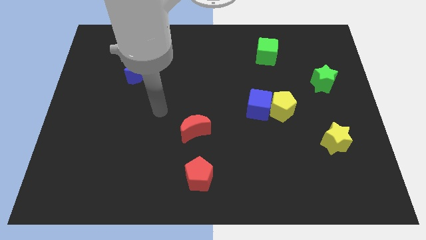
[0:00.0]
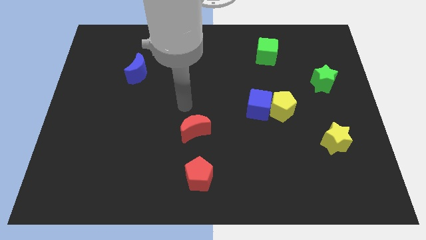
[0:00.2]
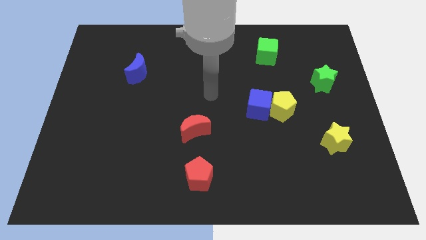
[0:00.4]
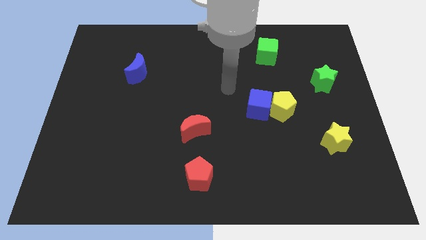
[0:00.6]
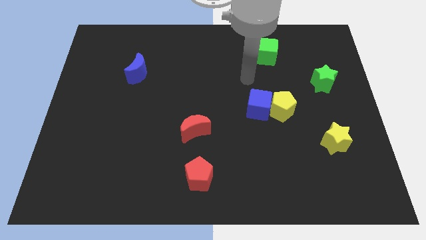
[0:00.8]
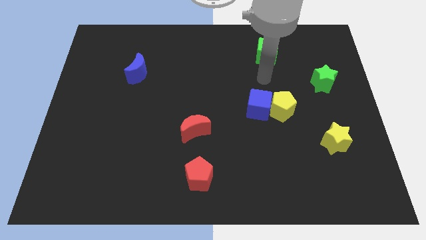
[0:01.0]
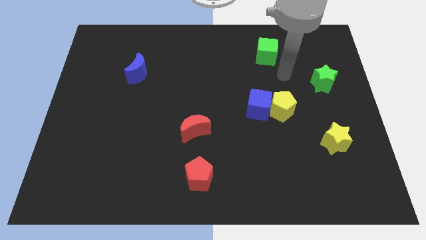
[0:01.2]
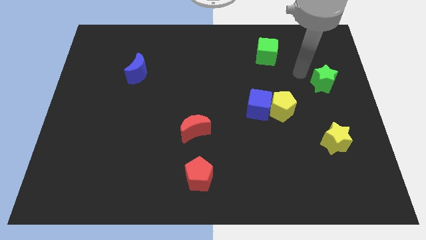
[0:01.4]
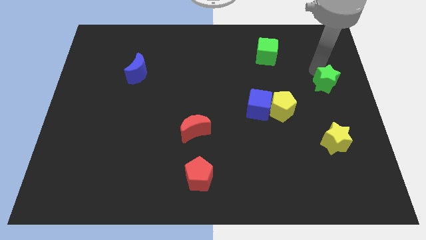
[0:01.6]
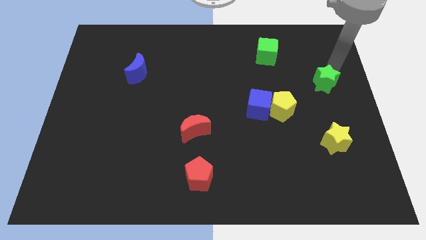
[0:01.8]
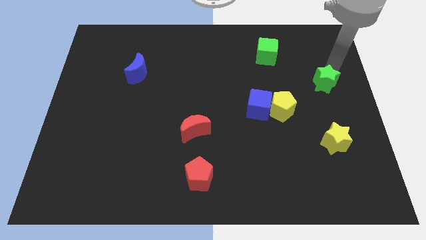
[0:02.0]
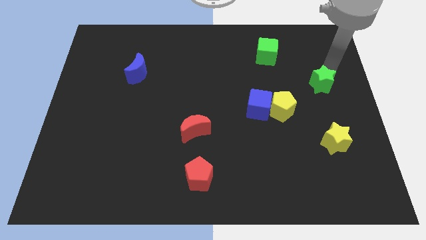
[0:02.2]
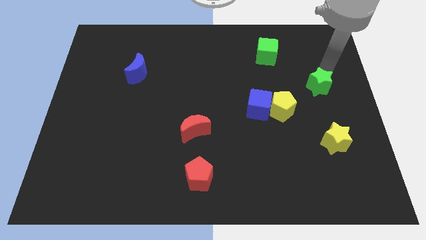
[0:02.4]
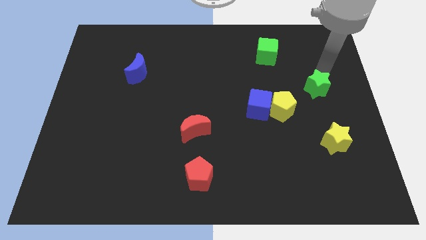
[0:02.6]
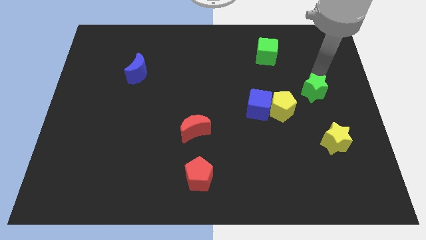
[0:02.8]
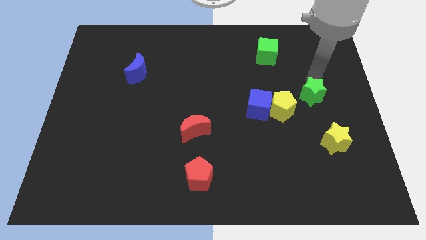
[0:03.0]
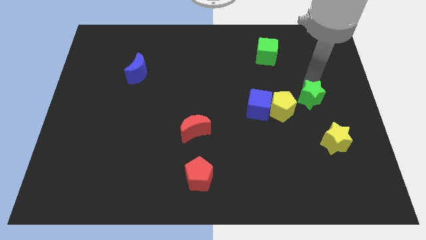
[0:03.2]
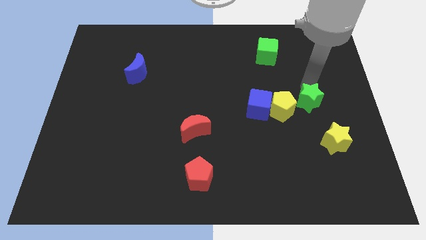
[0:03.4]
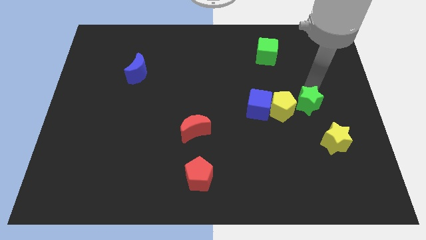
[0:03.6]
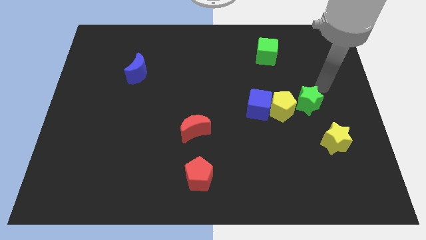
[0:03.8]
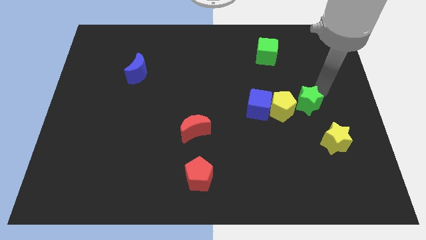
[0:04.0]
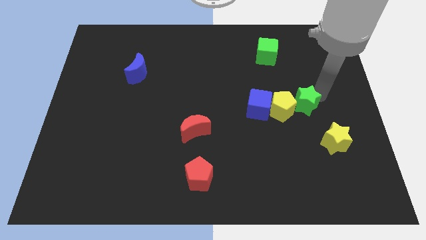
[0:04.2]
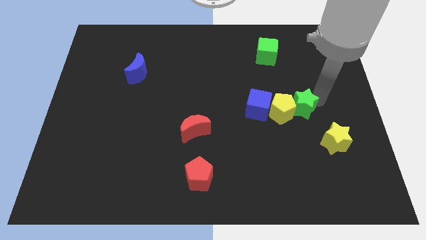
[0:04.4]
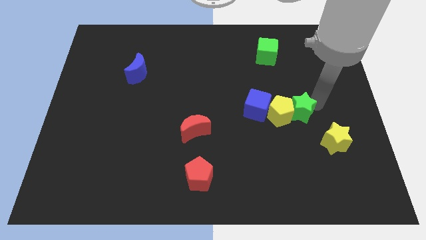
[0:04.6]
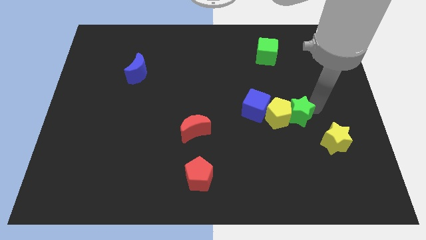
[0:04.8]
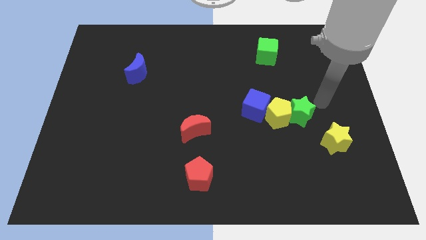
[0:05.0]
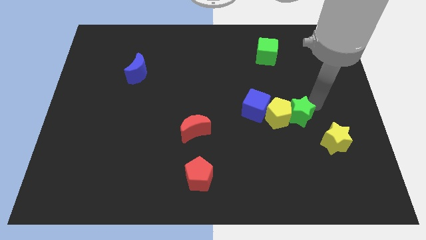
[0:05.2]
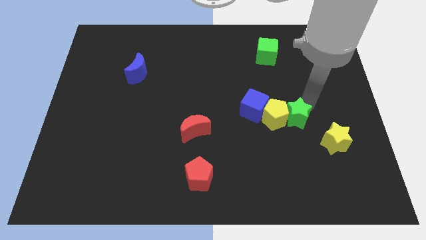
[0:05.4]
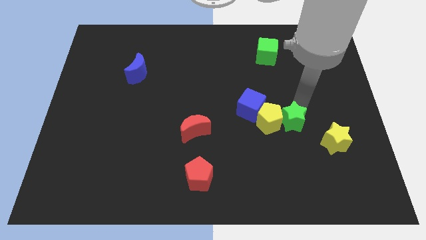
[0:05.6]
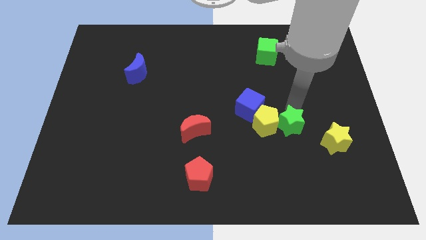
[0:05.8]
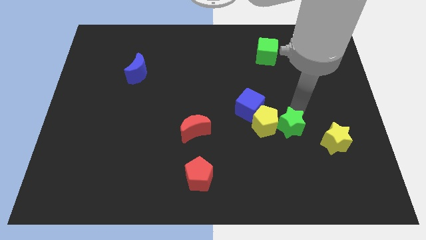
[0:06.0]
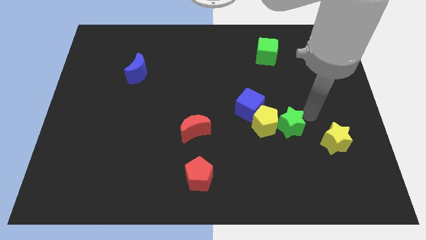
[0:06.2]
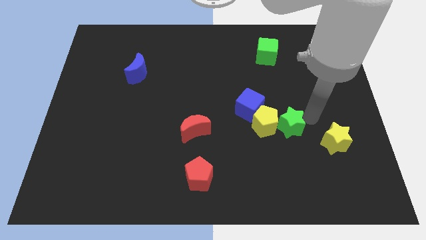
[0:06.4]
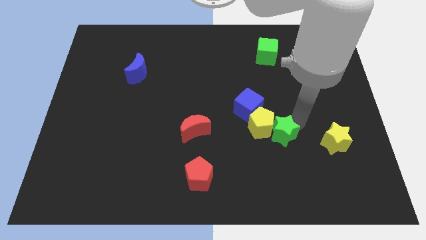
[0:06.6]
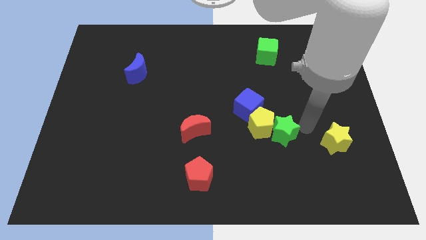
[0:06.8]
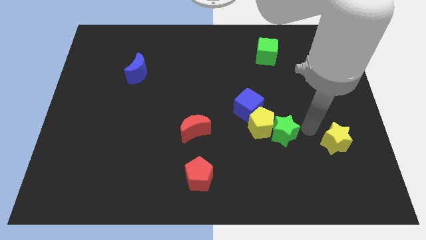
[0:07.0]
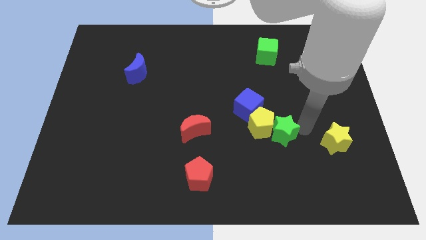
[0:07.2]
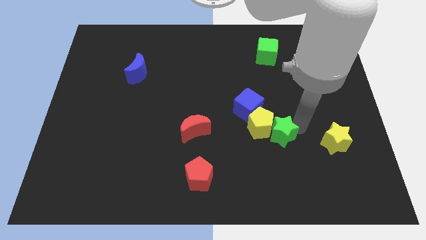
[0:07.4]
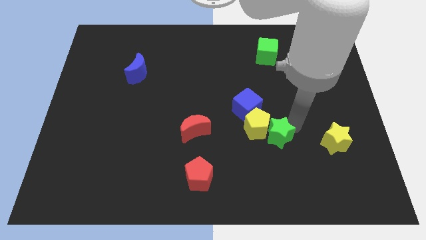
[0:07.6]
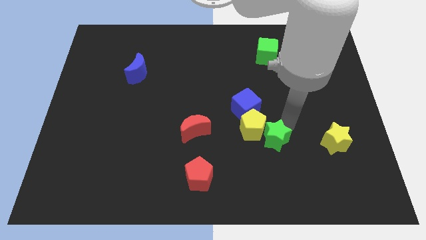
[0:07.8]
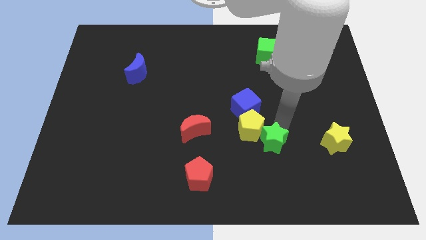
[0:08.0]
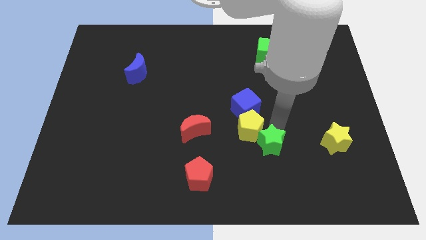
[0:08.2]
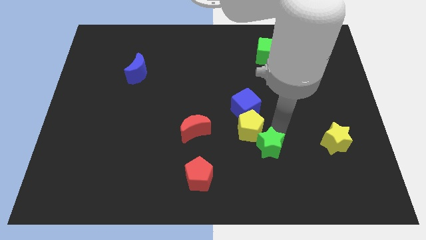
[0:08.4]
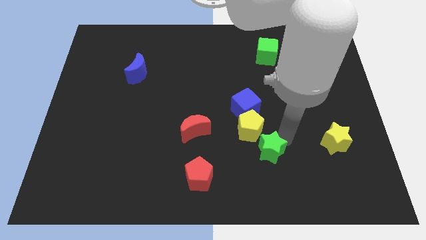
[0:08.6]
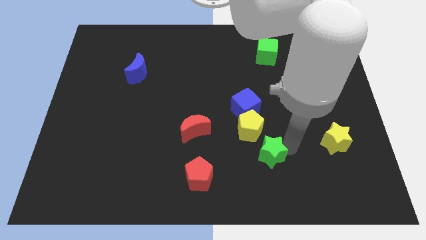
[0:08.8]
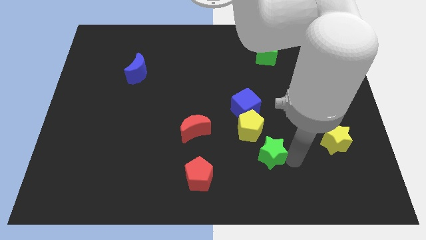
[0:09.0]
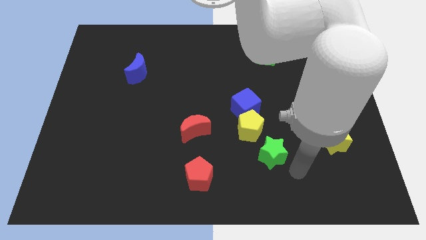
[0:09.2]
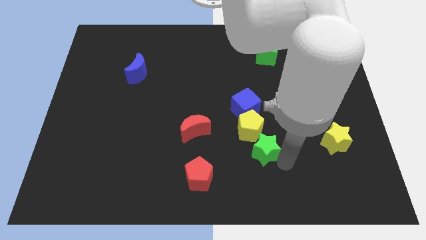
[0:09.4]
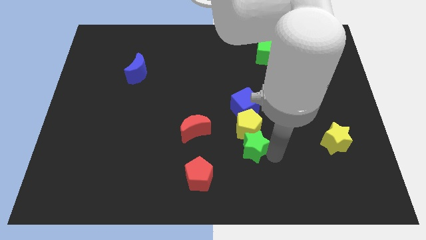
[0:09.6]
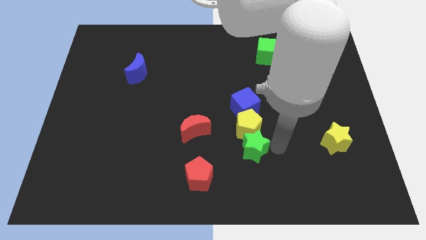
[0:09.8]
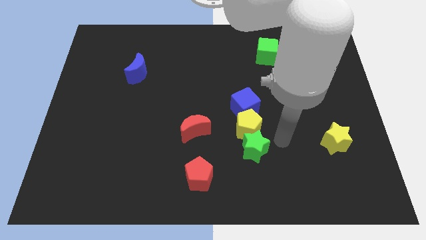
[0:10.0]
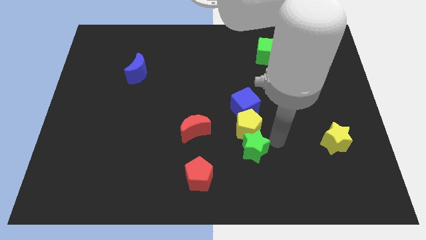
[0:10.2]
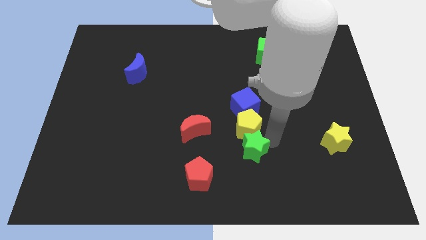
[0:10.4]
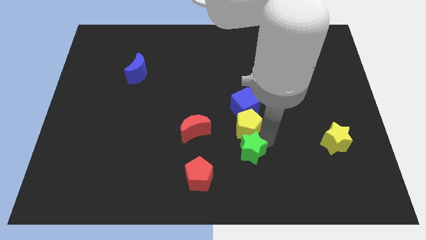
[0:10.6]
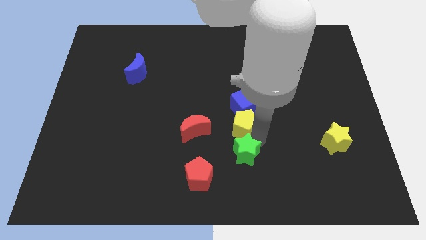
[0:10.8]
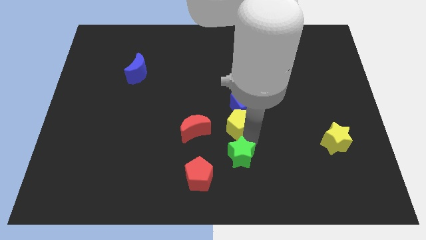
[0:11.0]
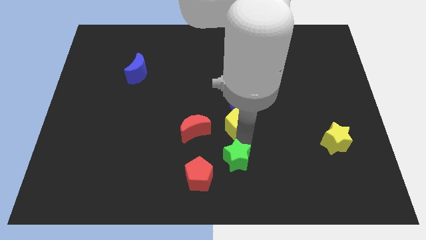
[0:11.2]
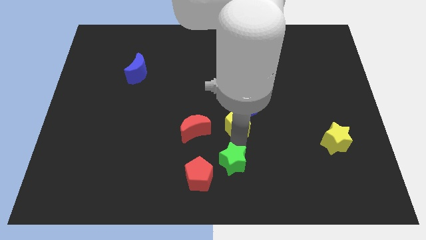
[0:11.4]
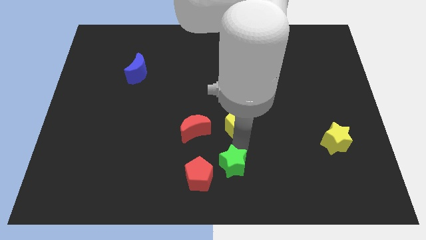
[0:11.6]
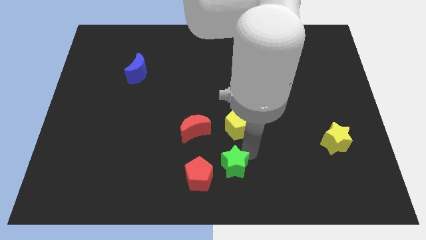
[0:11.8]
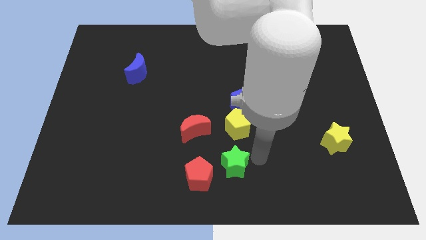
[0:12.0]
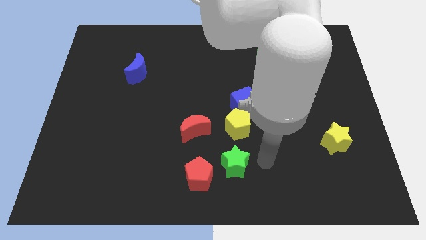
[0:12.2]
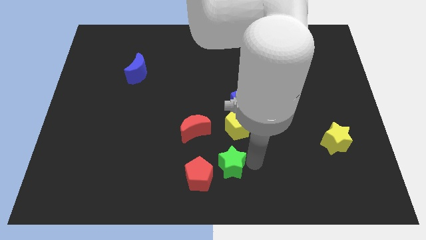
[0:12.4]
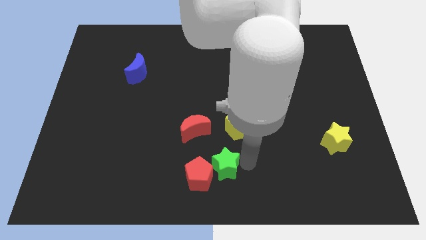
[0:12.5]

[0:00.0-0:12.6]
slide the green star towards the red pentagon

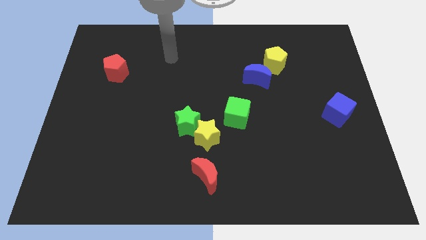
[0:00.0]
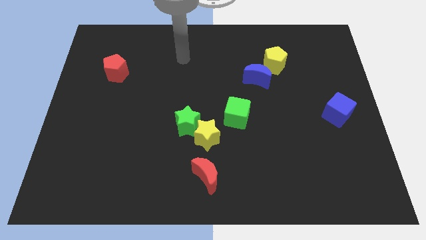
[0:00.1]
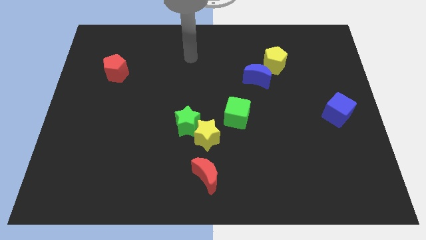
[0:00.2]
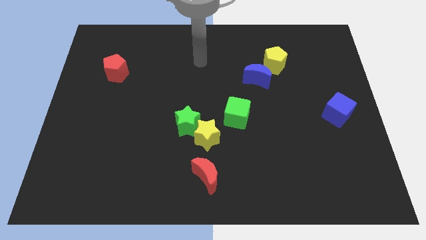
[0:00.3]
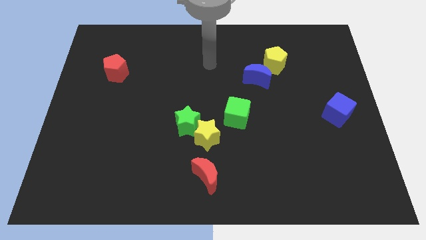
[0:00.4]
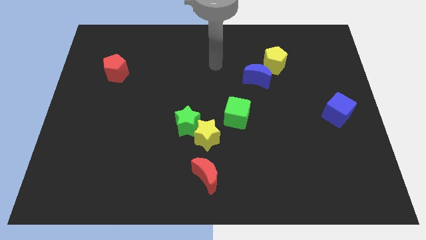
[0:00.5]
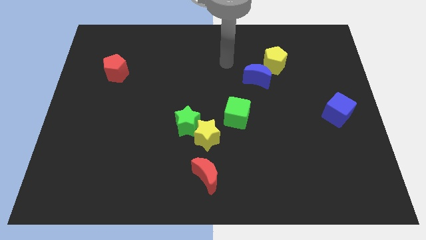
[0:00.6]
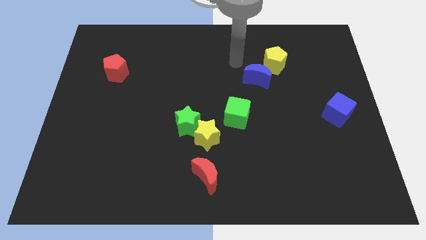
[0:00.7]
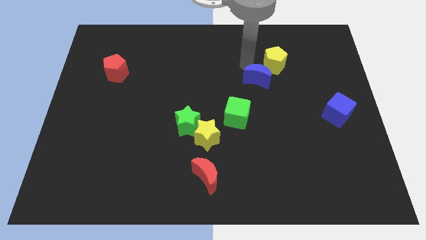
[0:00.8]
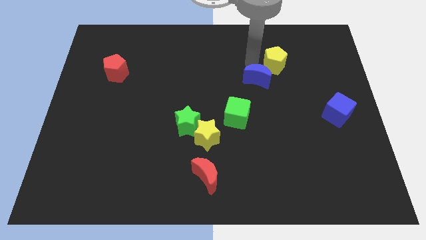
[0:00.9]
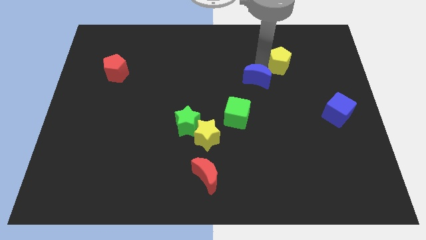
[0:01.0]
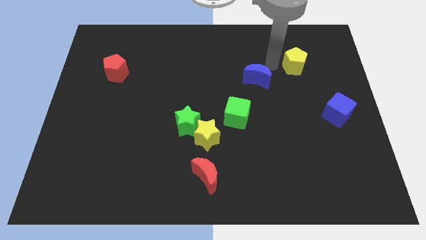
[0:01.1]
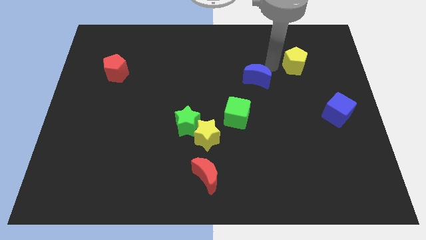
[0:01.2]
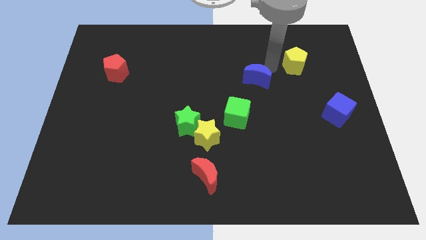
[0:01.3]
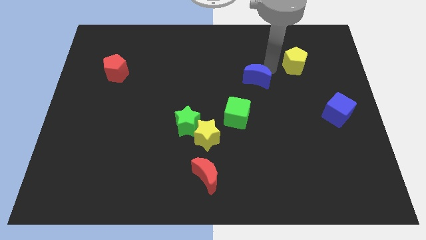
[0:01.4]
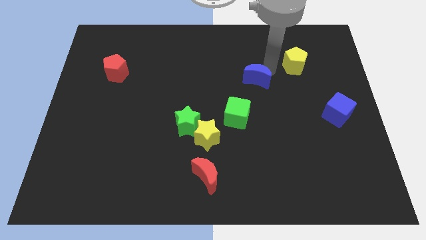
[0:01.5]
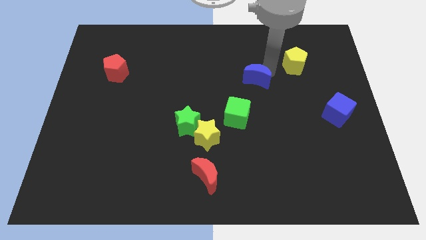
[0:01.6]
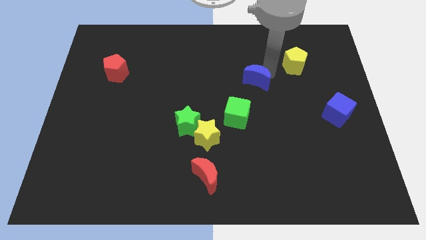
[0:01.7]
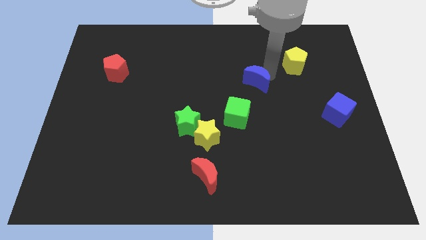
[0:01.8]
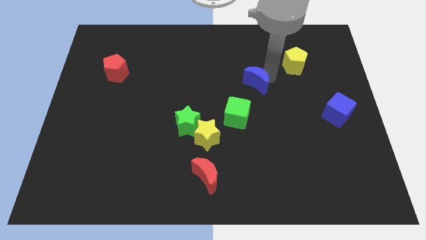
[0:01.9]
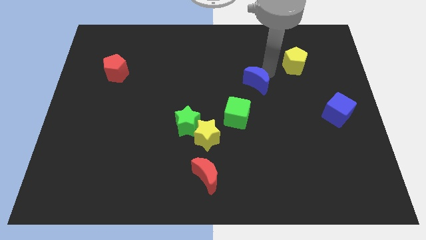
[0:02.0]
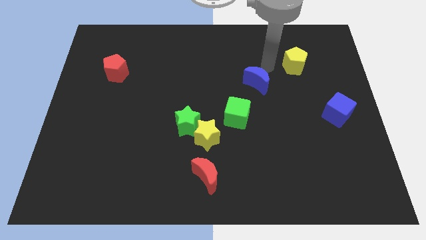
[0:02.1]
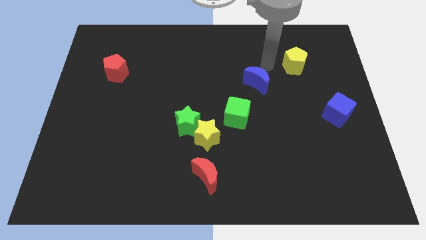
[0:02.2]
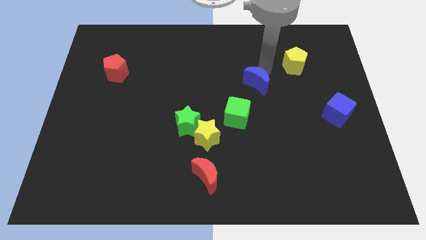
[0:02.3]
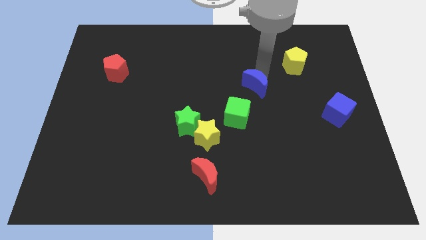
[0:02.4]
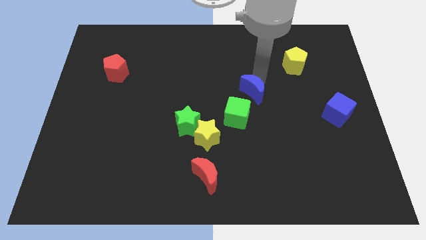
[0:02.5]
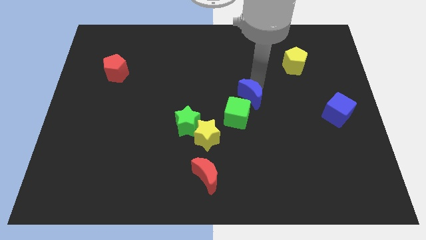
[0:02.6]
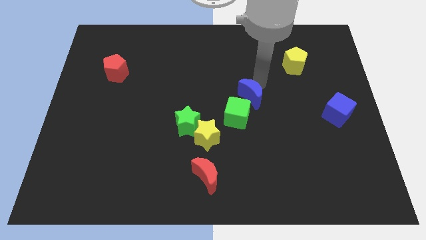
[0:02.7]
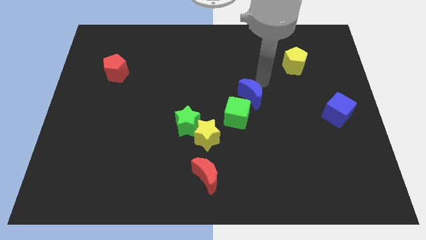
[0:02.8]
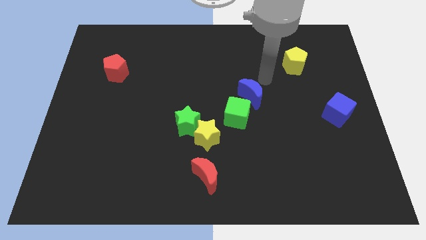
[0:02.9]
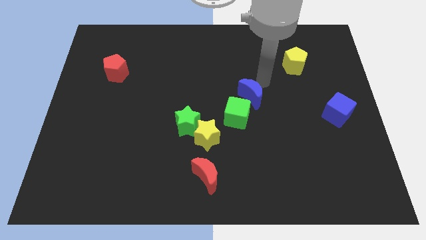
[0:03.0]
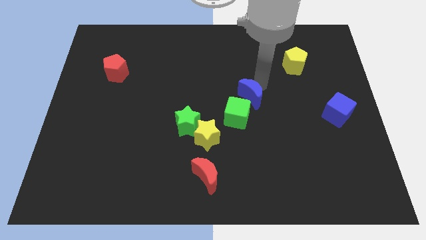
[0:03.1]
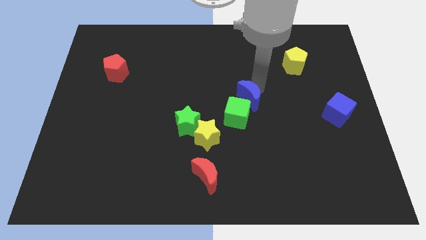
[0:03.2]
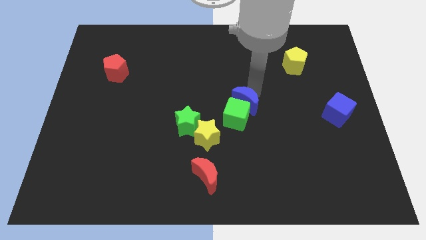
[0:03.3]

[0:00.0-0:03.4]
move the blue moon to the green cube
